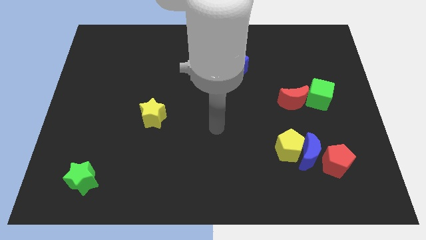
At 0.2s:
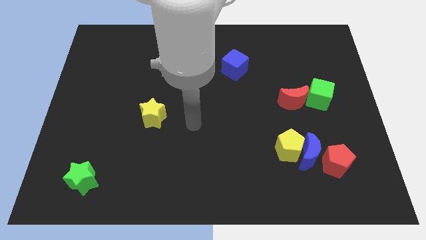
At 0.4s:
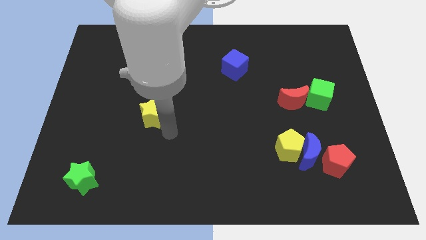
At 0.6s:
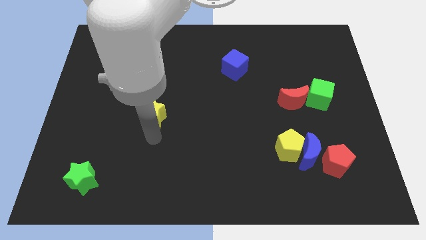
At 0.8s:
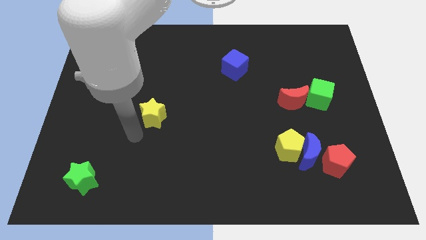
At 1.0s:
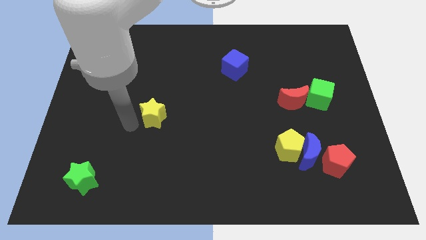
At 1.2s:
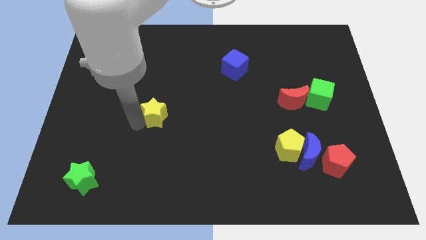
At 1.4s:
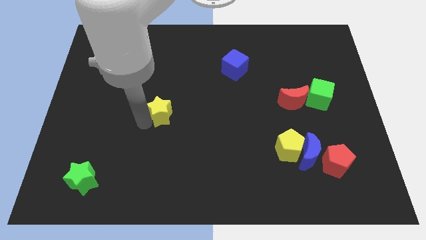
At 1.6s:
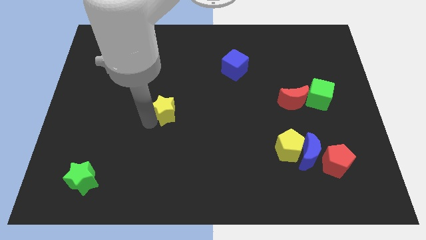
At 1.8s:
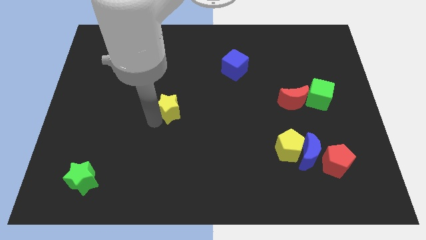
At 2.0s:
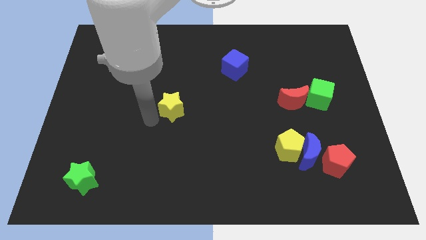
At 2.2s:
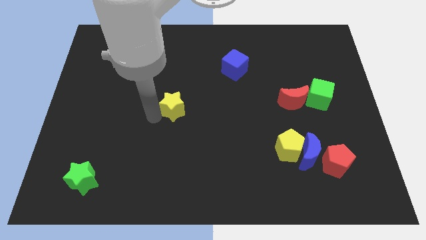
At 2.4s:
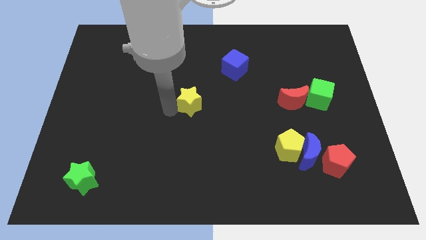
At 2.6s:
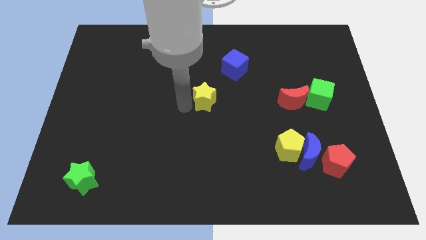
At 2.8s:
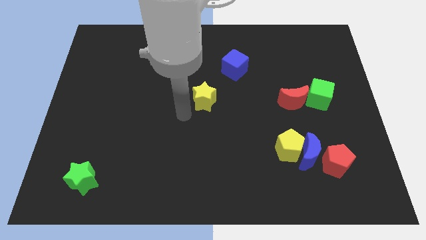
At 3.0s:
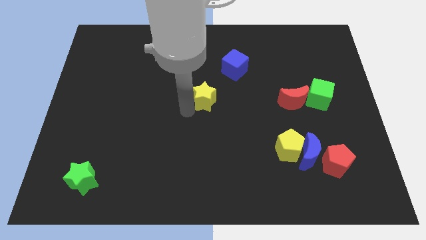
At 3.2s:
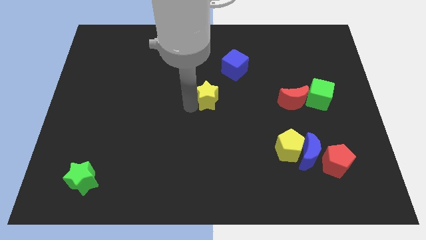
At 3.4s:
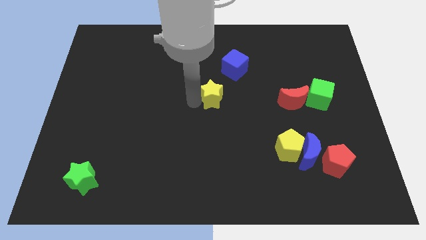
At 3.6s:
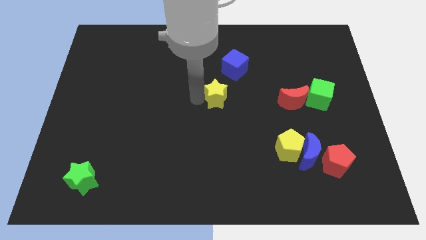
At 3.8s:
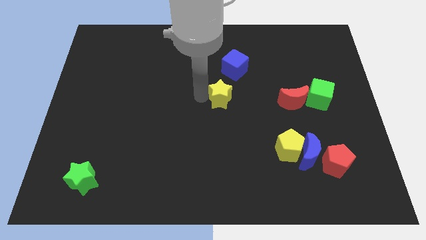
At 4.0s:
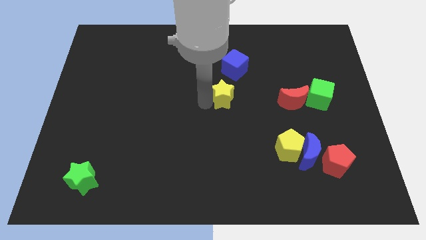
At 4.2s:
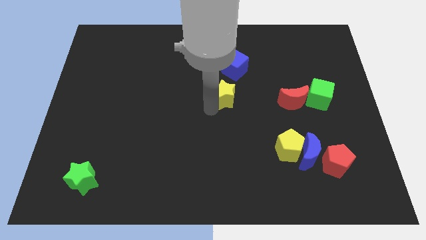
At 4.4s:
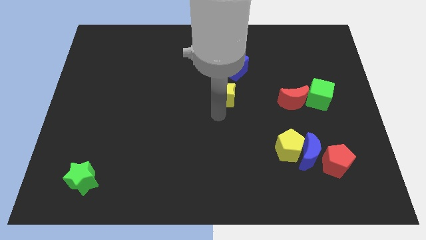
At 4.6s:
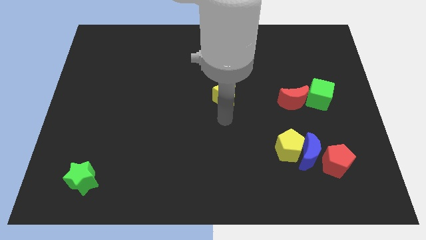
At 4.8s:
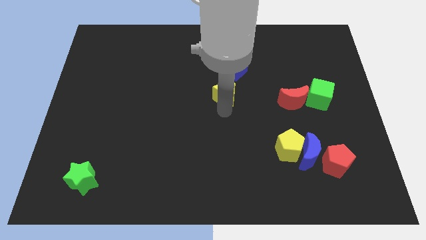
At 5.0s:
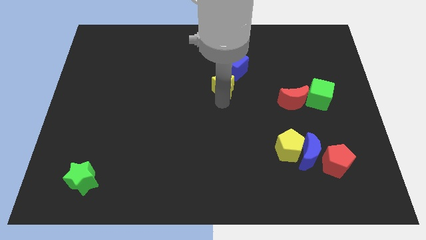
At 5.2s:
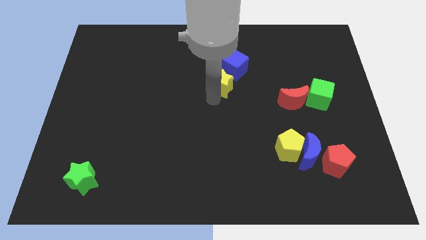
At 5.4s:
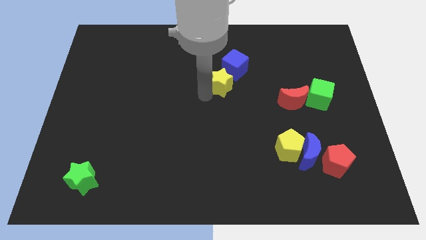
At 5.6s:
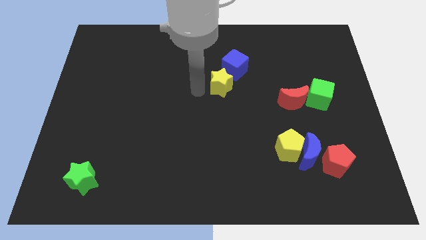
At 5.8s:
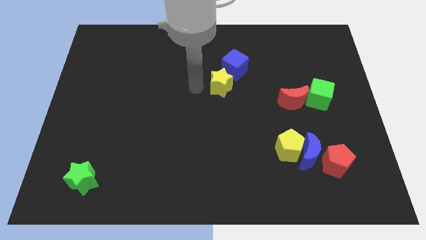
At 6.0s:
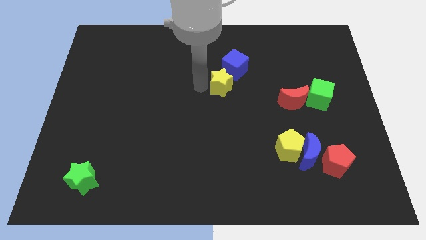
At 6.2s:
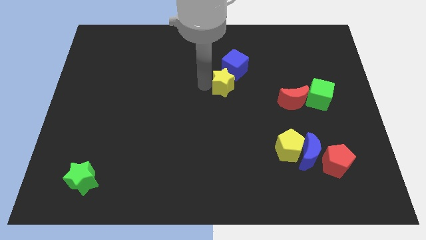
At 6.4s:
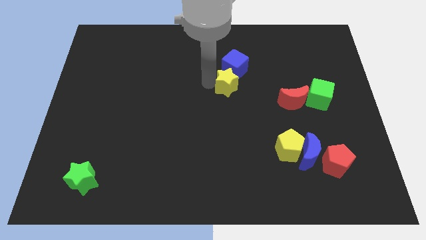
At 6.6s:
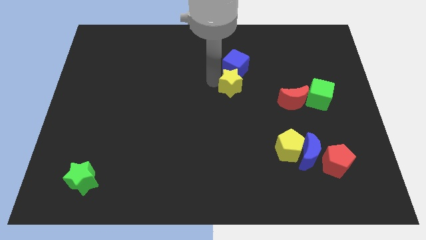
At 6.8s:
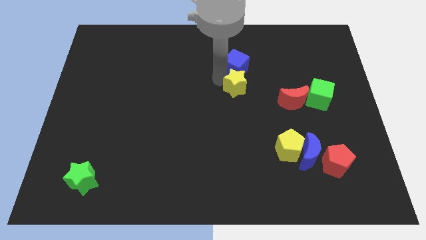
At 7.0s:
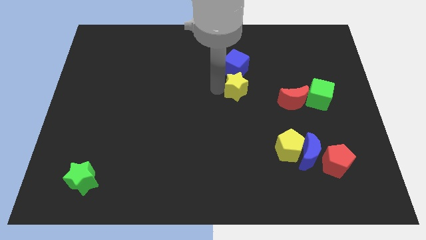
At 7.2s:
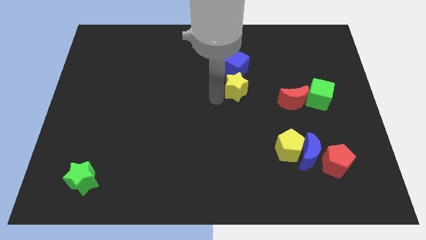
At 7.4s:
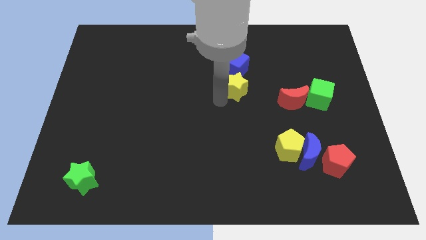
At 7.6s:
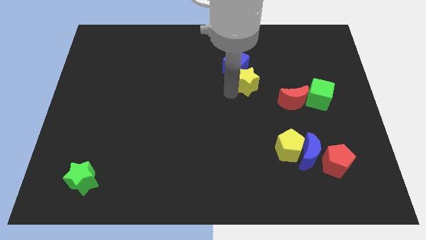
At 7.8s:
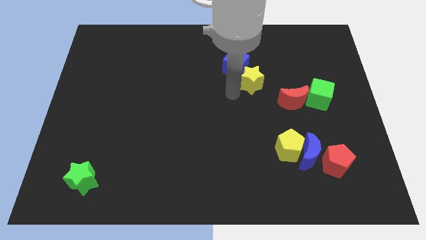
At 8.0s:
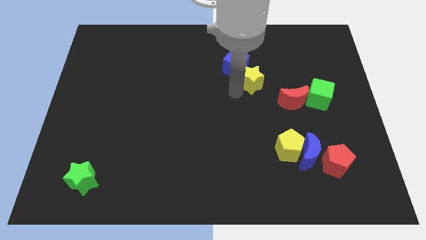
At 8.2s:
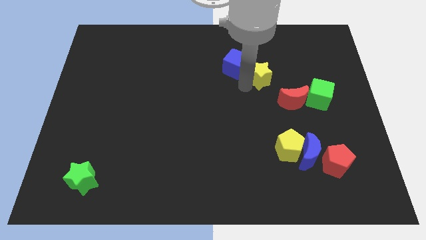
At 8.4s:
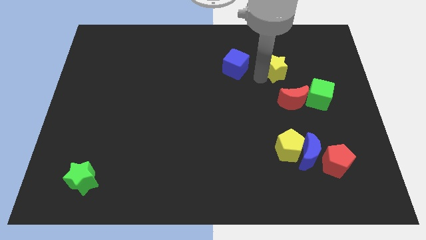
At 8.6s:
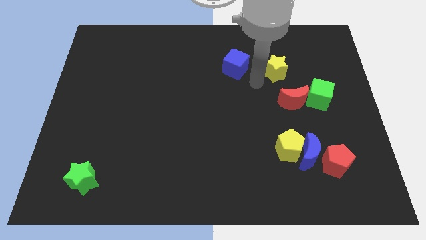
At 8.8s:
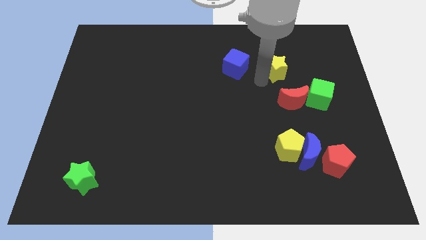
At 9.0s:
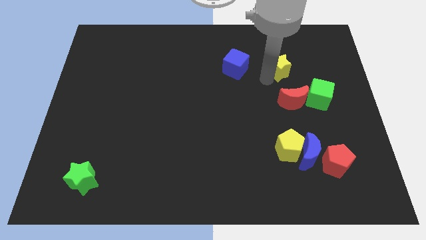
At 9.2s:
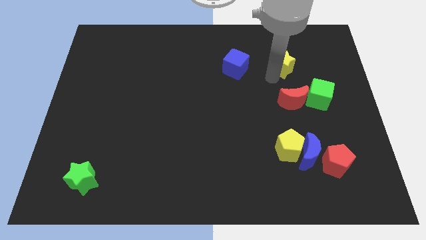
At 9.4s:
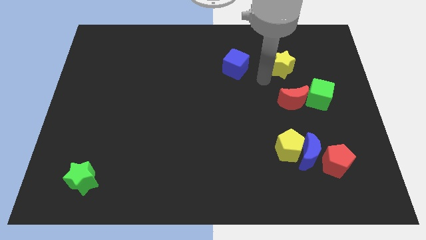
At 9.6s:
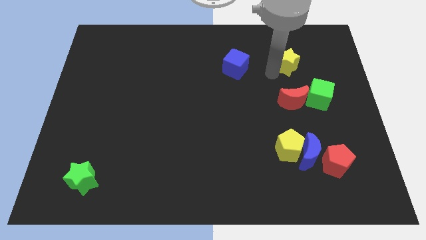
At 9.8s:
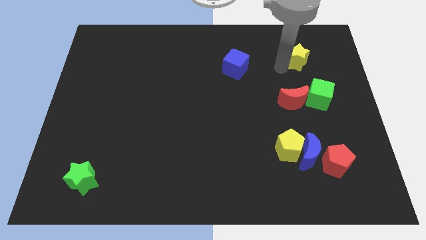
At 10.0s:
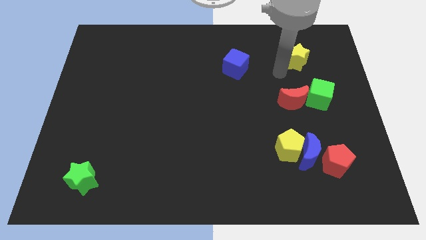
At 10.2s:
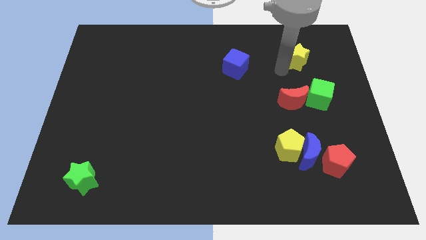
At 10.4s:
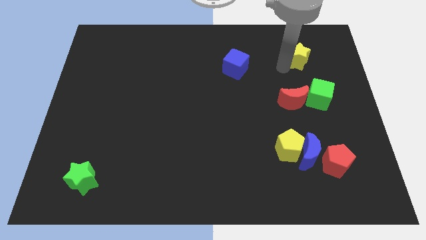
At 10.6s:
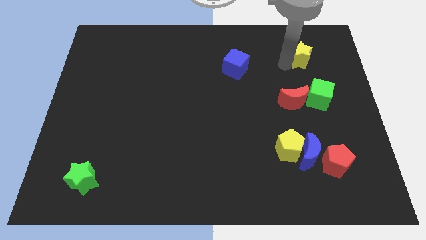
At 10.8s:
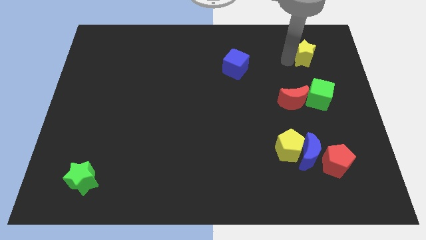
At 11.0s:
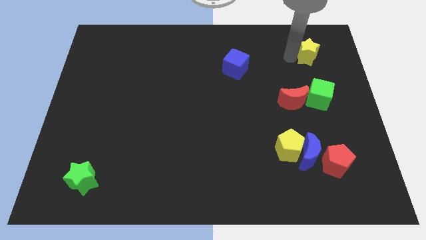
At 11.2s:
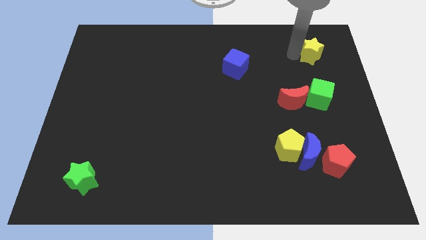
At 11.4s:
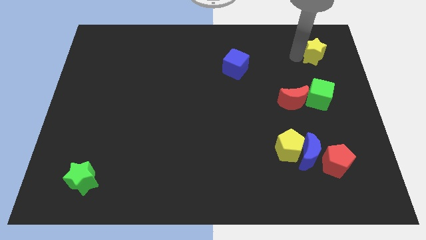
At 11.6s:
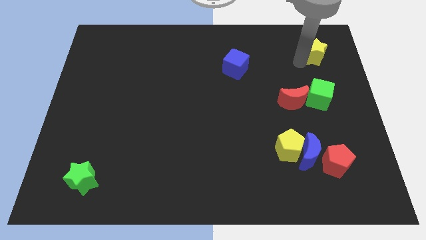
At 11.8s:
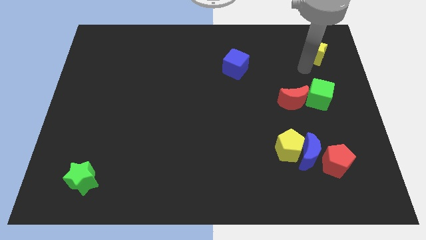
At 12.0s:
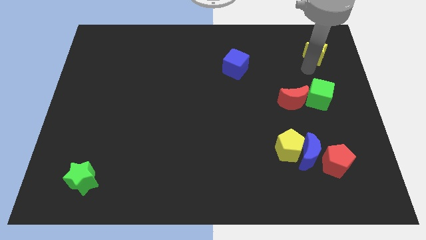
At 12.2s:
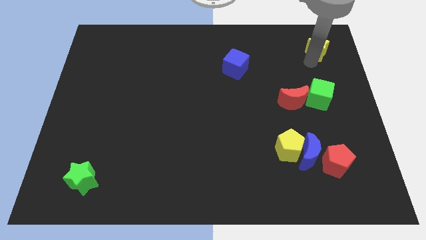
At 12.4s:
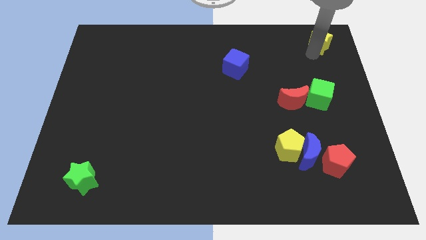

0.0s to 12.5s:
put the yellow star to the top right of the board
